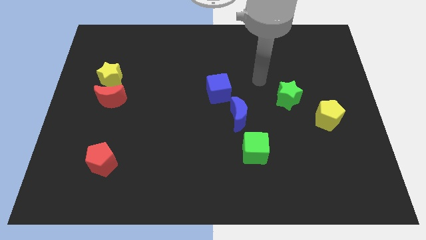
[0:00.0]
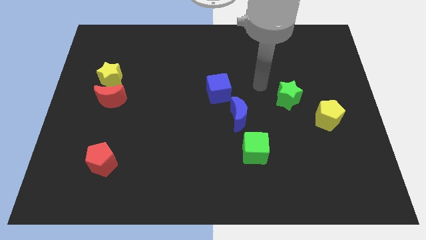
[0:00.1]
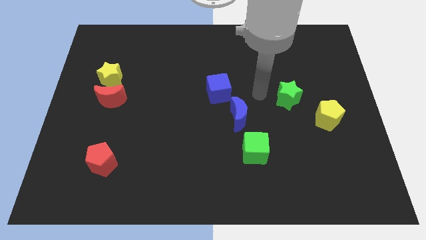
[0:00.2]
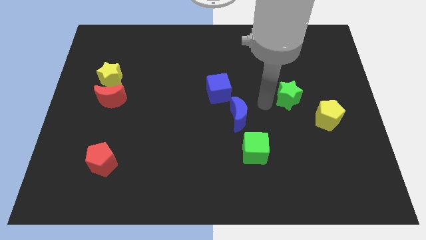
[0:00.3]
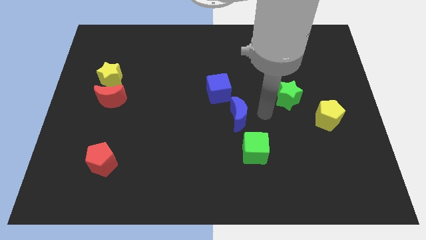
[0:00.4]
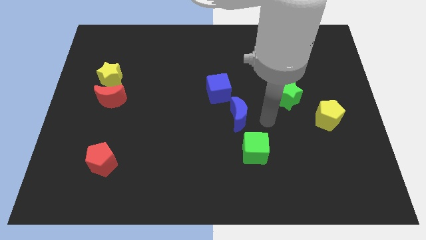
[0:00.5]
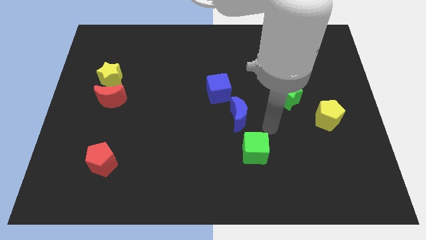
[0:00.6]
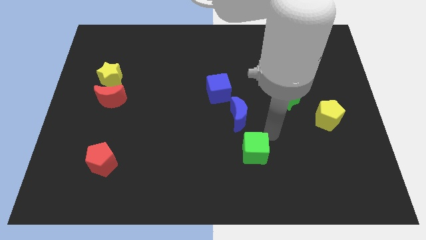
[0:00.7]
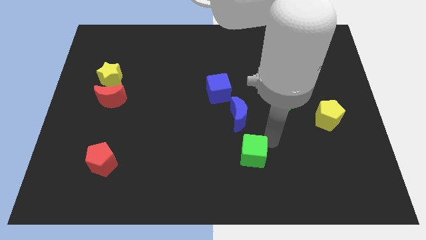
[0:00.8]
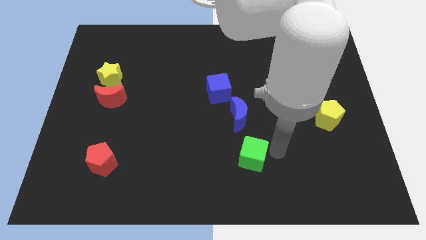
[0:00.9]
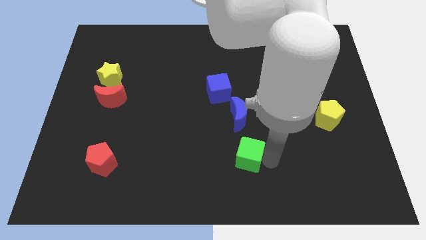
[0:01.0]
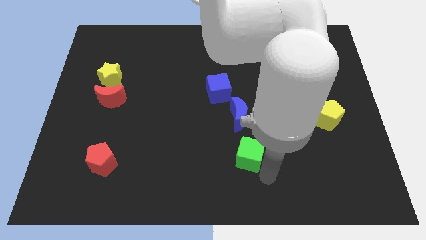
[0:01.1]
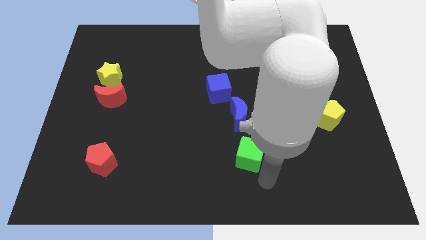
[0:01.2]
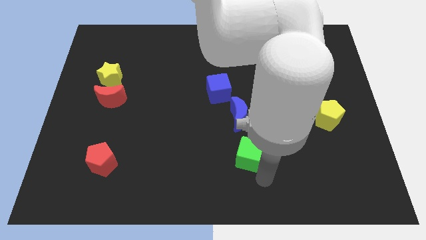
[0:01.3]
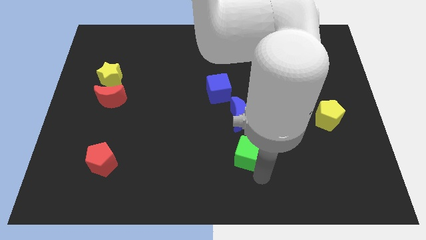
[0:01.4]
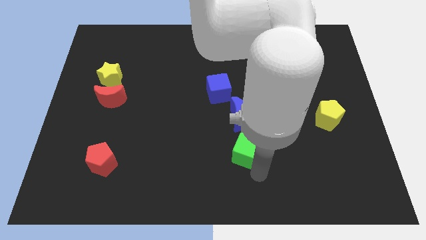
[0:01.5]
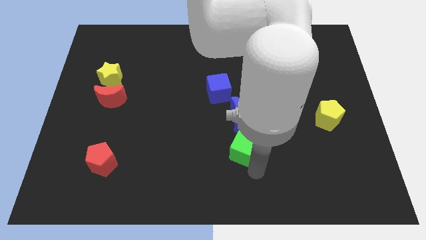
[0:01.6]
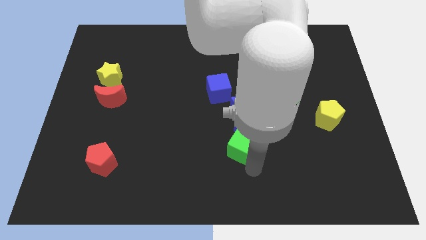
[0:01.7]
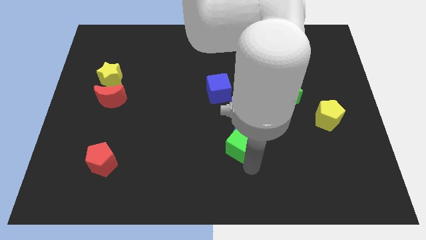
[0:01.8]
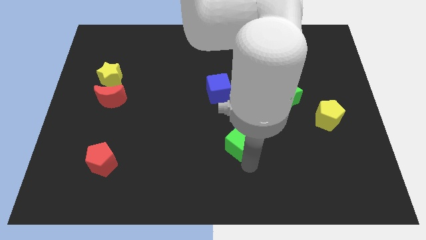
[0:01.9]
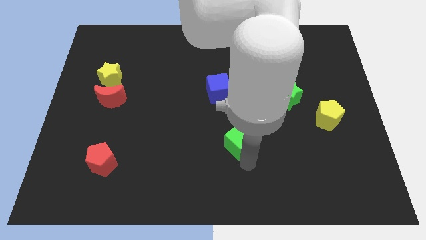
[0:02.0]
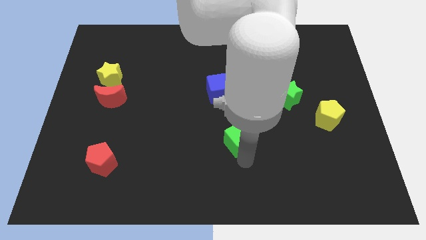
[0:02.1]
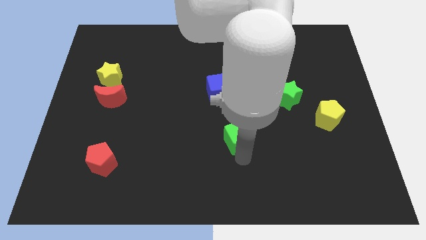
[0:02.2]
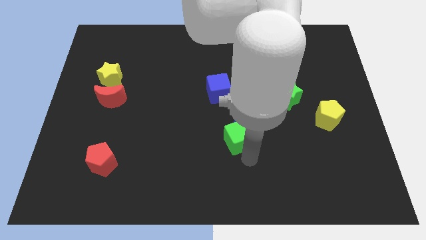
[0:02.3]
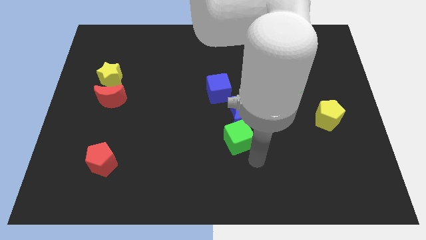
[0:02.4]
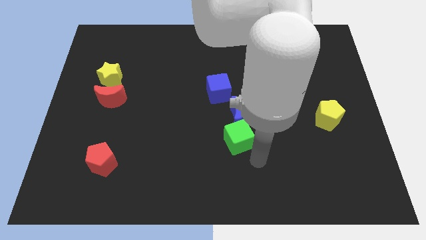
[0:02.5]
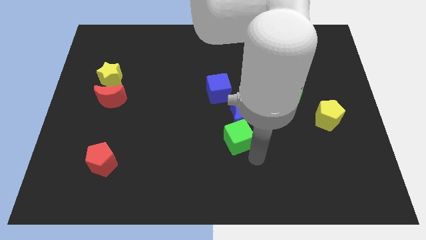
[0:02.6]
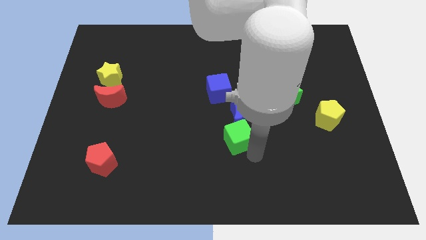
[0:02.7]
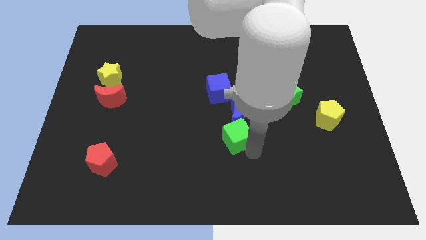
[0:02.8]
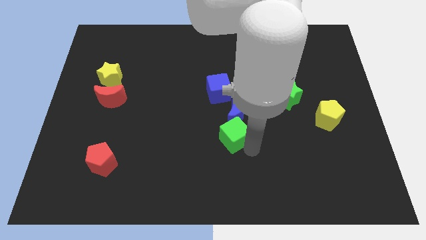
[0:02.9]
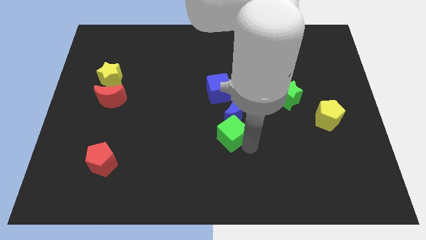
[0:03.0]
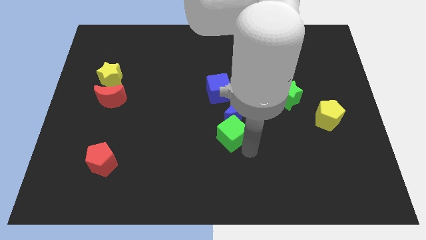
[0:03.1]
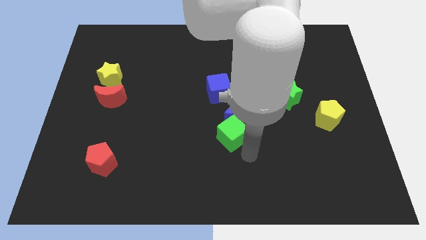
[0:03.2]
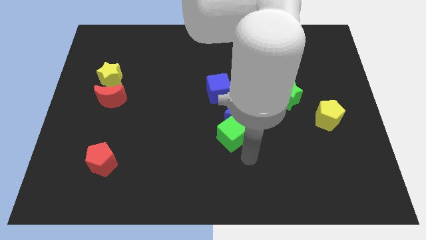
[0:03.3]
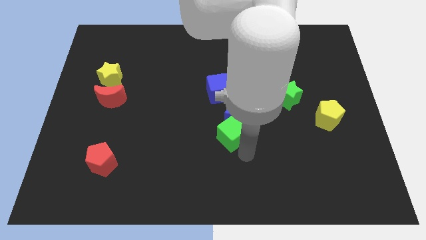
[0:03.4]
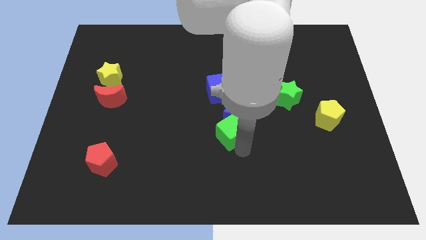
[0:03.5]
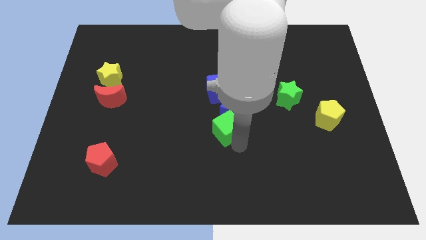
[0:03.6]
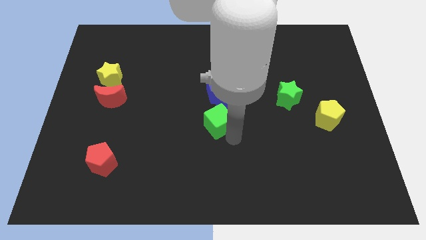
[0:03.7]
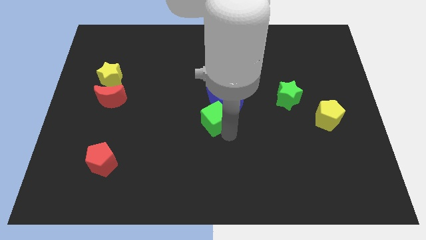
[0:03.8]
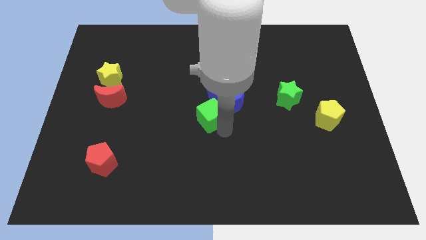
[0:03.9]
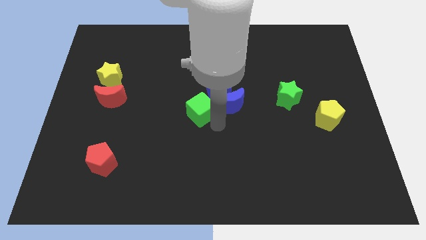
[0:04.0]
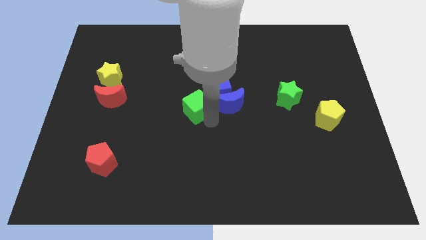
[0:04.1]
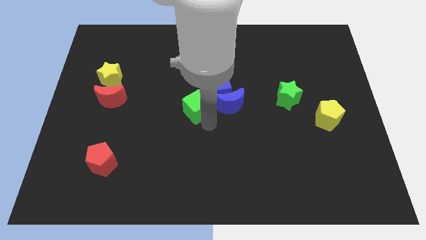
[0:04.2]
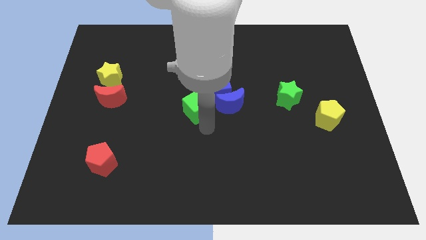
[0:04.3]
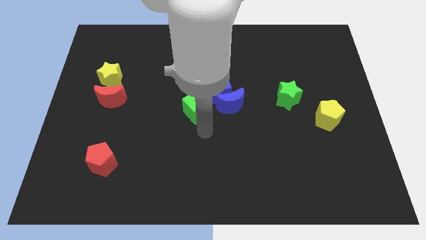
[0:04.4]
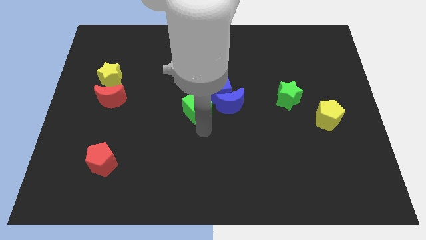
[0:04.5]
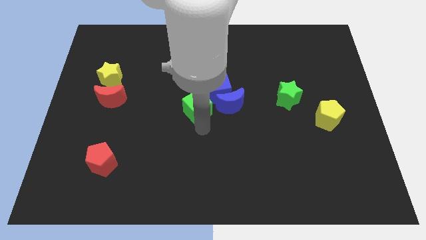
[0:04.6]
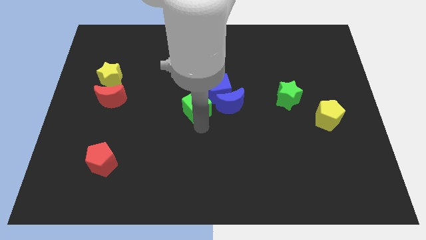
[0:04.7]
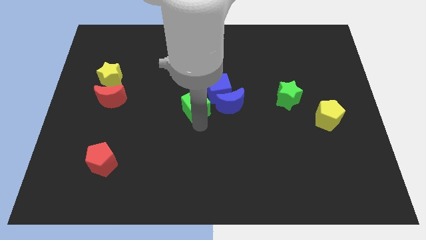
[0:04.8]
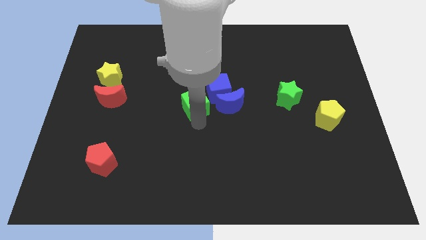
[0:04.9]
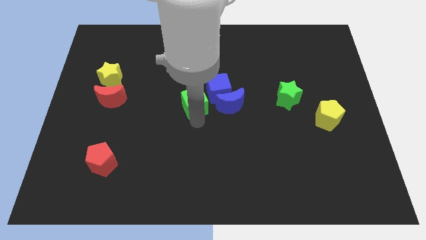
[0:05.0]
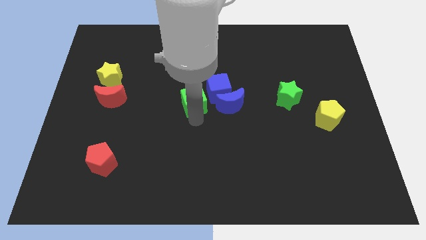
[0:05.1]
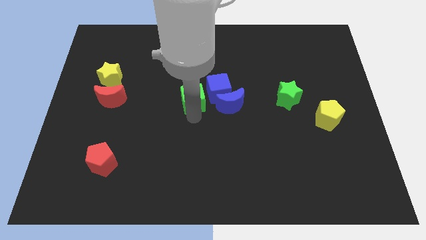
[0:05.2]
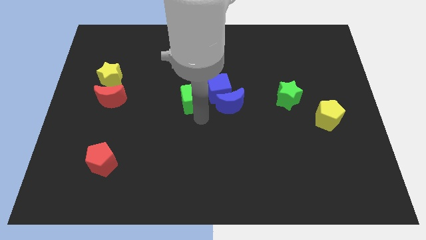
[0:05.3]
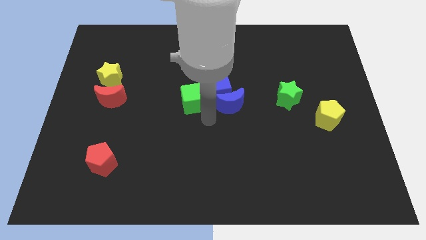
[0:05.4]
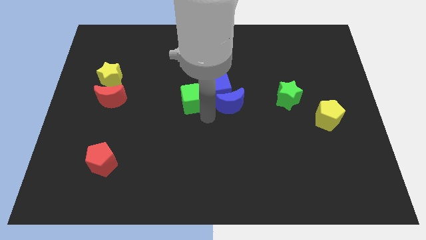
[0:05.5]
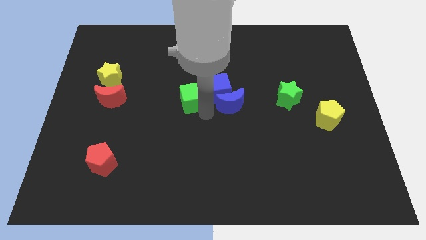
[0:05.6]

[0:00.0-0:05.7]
push the green cube up and to the left diagonally

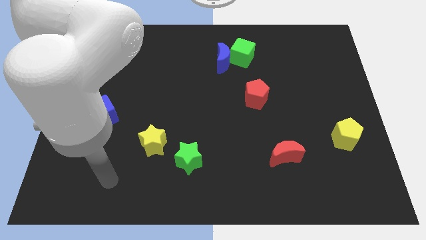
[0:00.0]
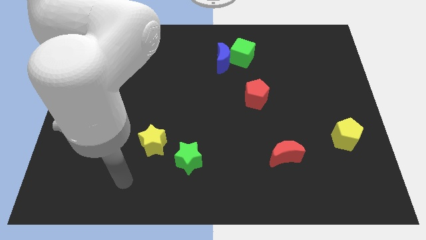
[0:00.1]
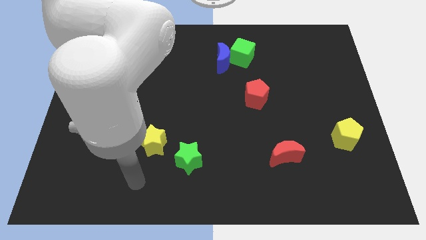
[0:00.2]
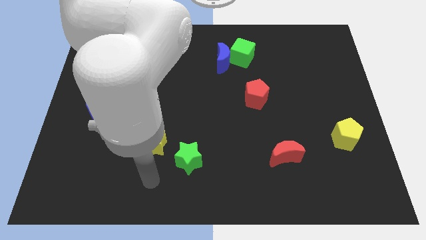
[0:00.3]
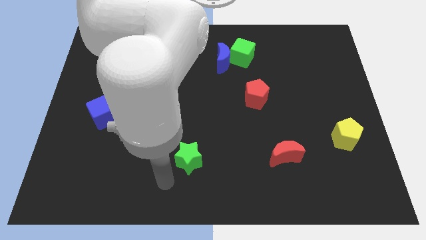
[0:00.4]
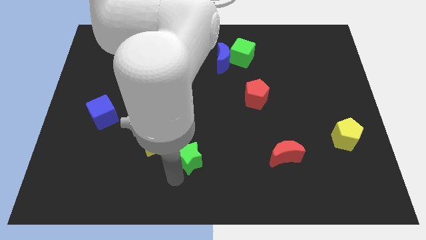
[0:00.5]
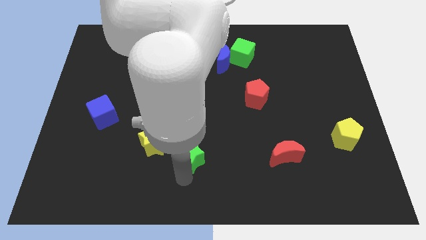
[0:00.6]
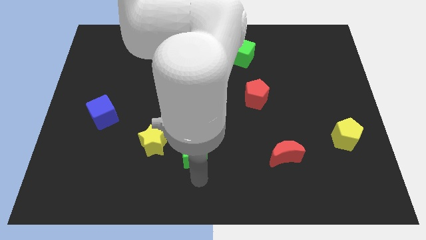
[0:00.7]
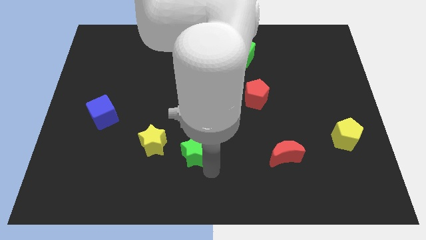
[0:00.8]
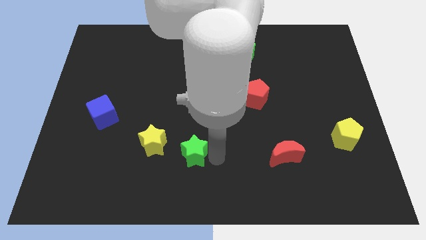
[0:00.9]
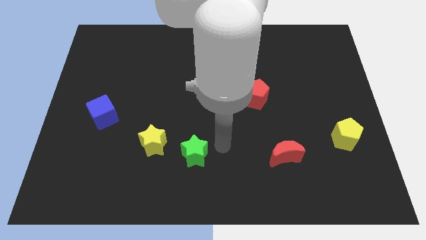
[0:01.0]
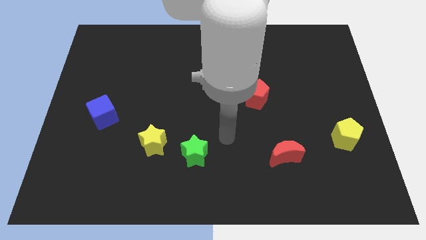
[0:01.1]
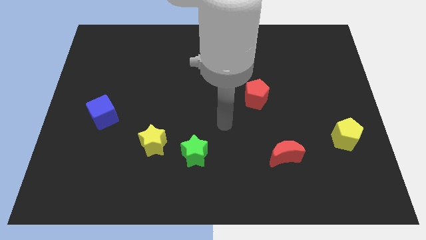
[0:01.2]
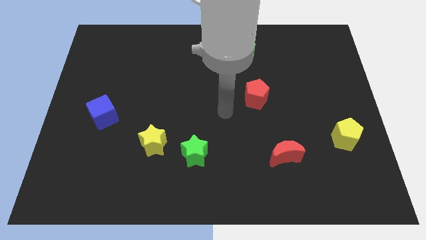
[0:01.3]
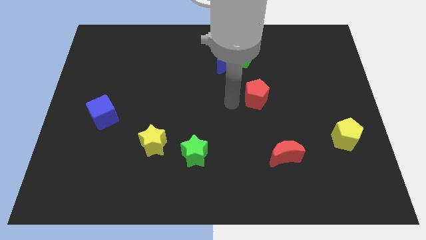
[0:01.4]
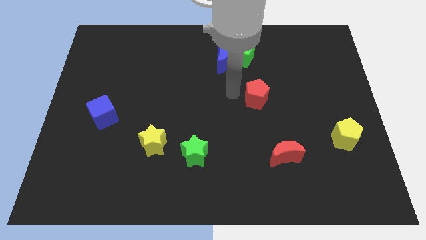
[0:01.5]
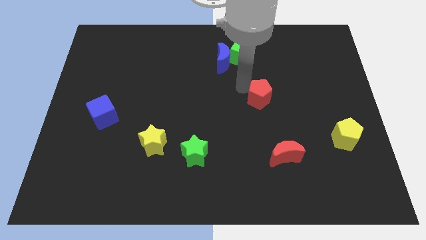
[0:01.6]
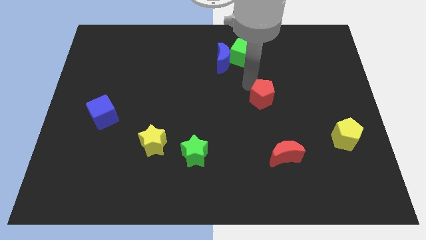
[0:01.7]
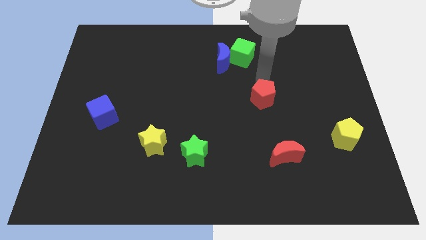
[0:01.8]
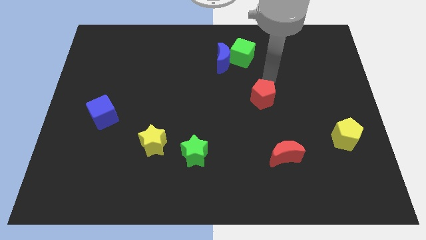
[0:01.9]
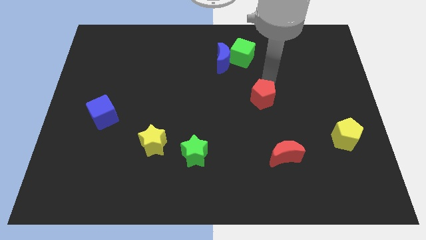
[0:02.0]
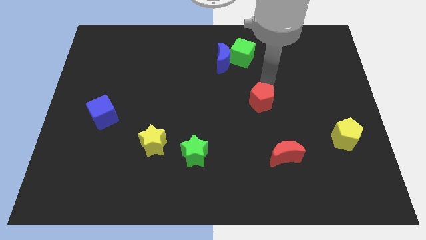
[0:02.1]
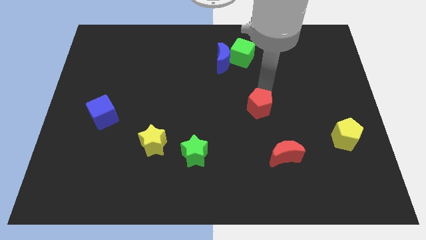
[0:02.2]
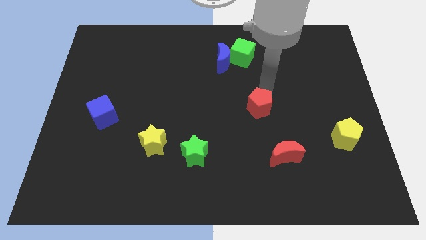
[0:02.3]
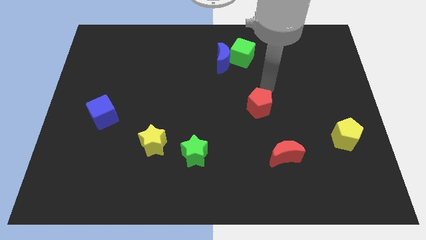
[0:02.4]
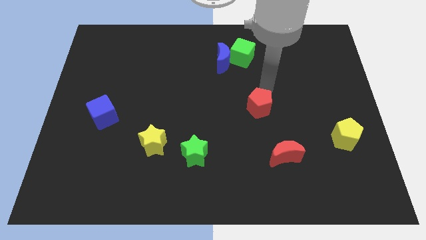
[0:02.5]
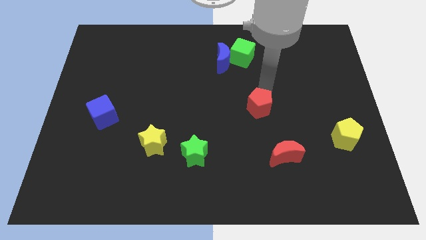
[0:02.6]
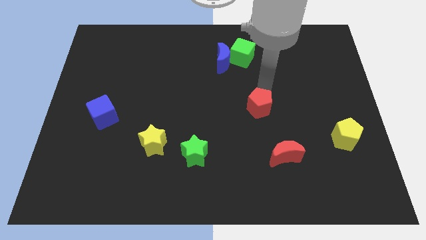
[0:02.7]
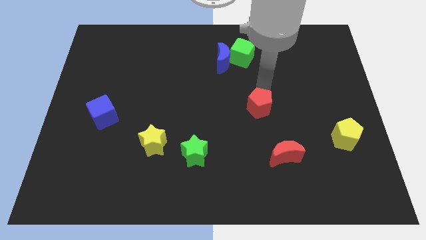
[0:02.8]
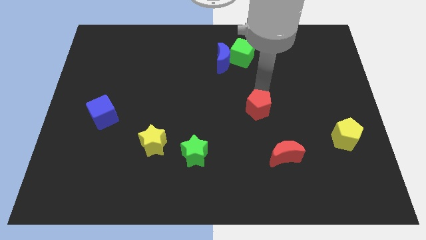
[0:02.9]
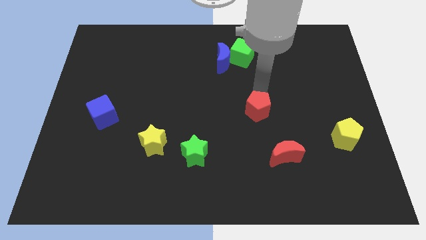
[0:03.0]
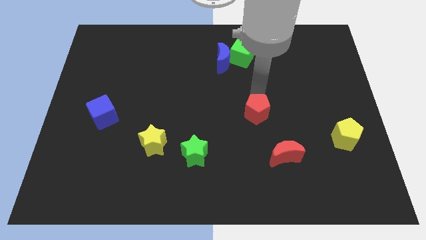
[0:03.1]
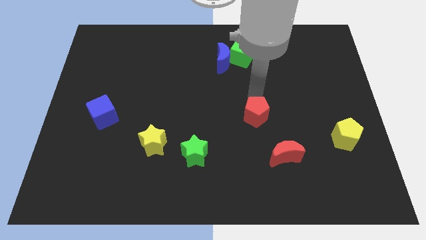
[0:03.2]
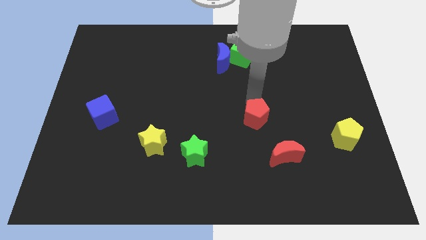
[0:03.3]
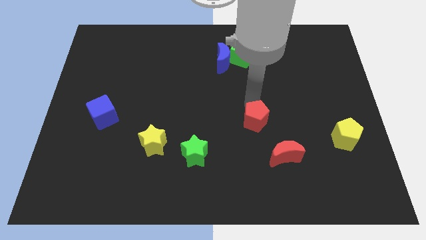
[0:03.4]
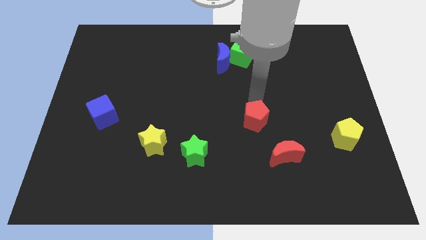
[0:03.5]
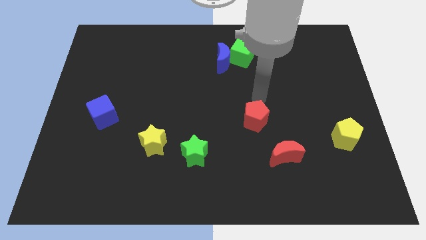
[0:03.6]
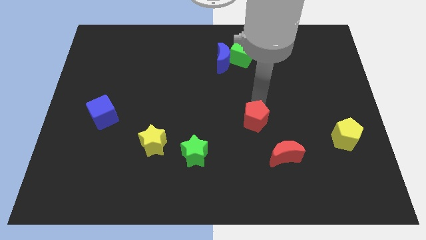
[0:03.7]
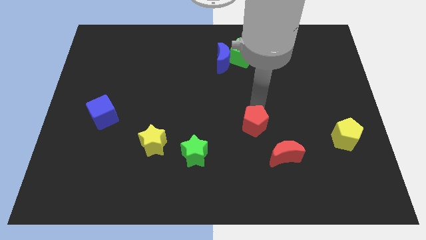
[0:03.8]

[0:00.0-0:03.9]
push the red pentagon downwards somewhat
